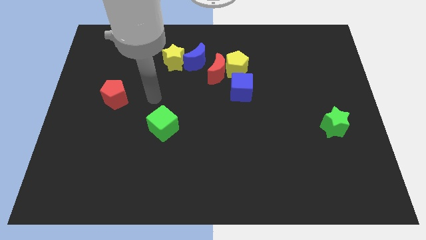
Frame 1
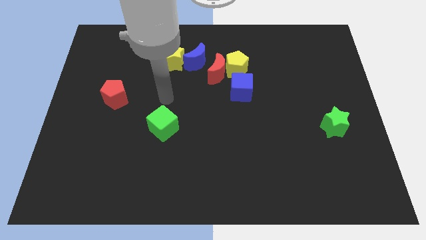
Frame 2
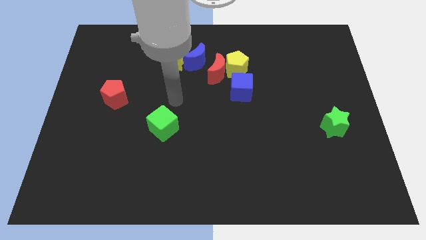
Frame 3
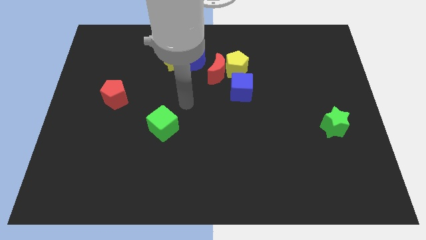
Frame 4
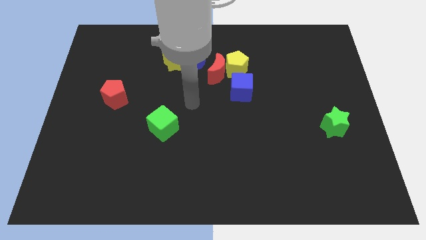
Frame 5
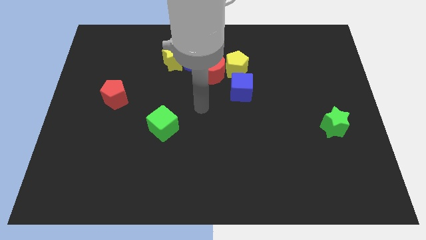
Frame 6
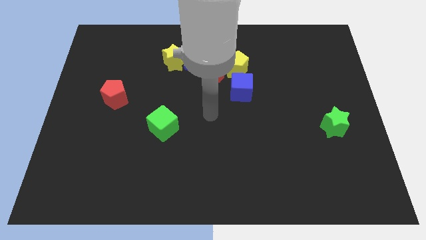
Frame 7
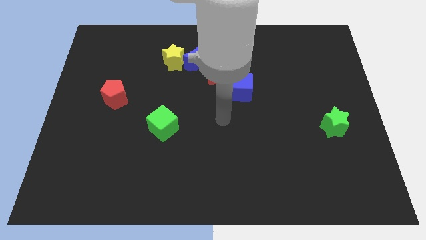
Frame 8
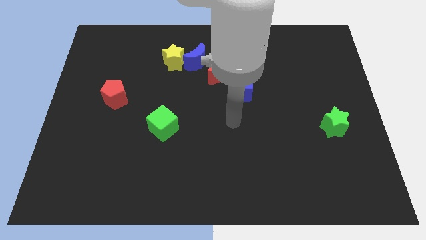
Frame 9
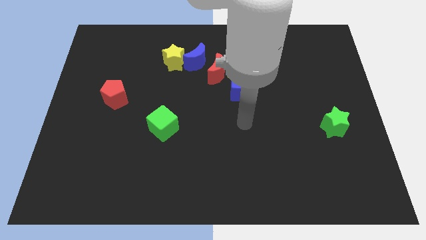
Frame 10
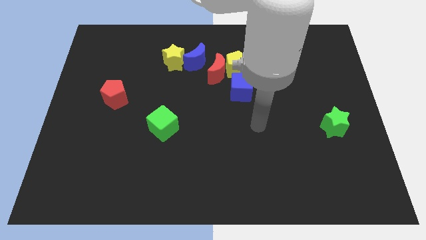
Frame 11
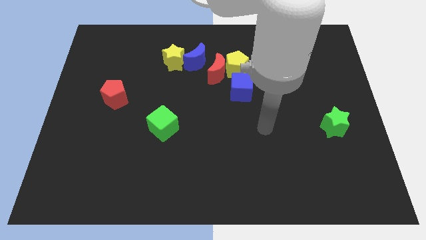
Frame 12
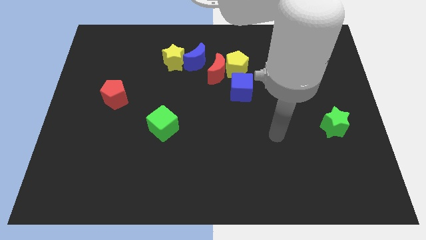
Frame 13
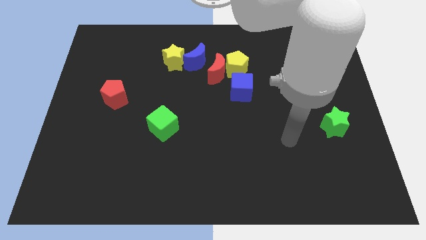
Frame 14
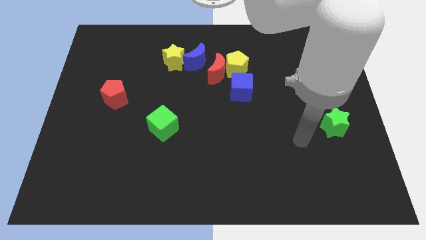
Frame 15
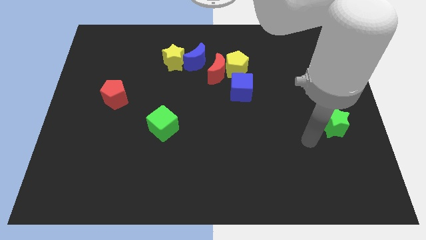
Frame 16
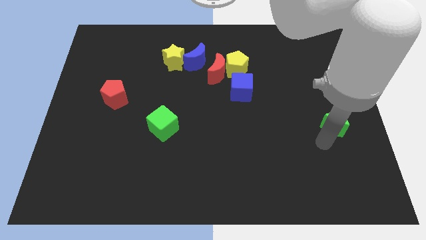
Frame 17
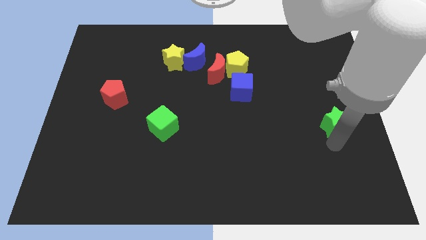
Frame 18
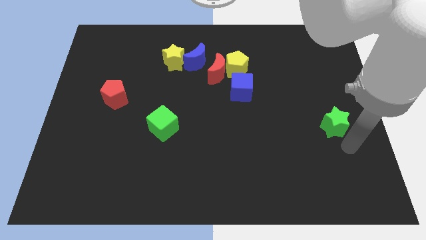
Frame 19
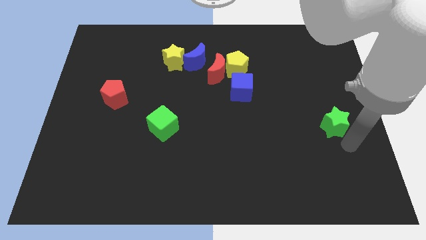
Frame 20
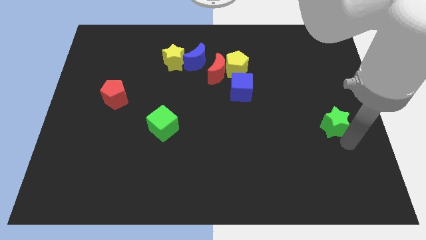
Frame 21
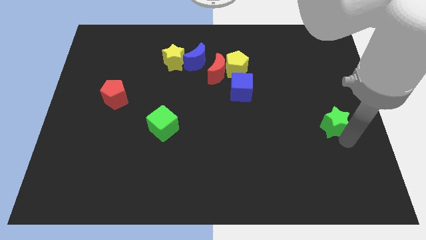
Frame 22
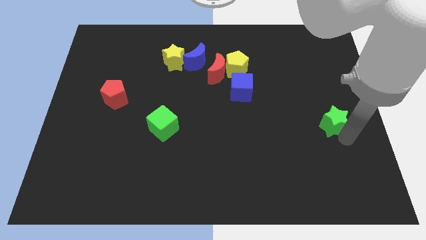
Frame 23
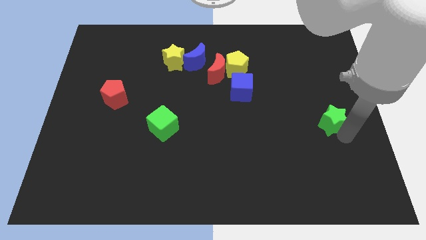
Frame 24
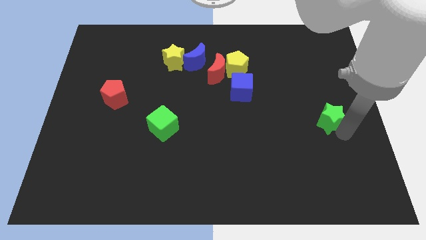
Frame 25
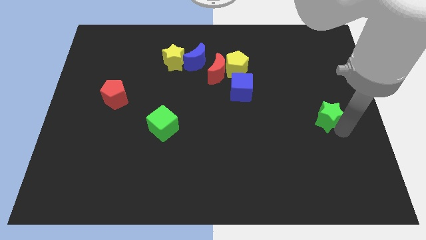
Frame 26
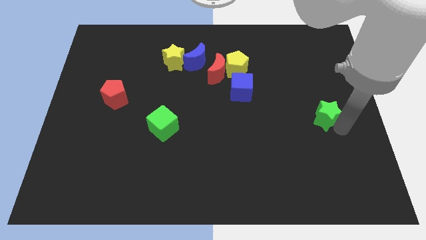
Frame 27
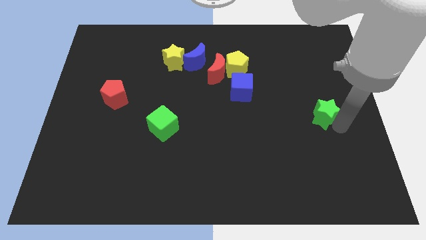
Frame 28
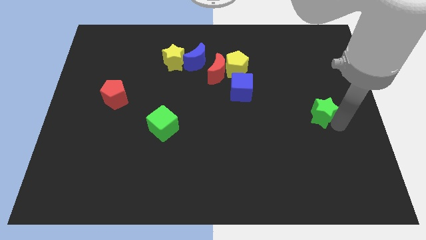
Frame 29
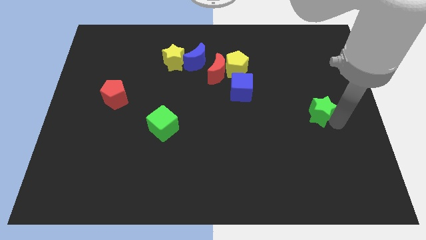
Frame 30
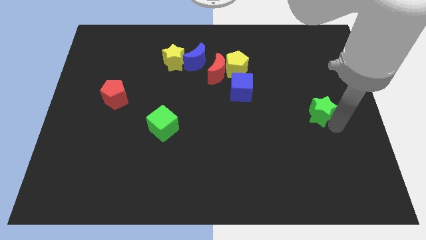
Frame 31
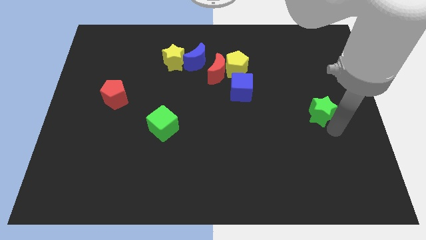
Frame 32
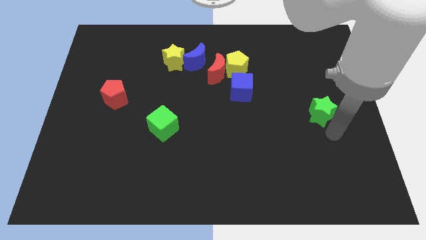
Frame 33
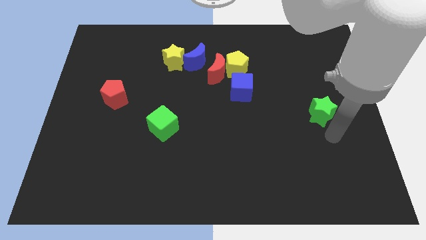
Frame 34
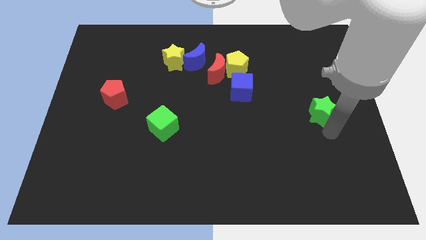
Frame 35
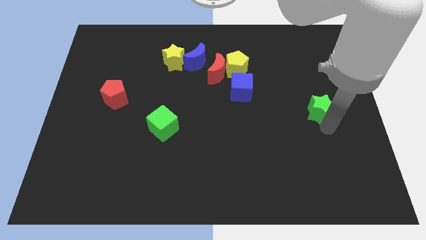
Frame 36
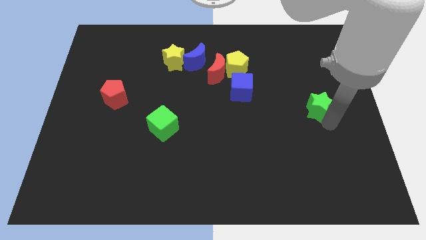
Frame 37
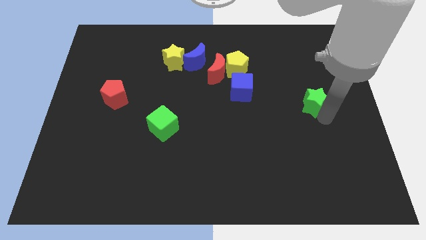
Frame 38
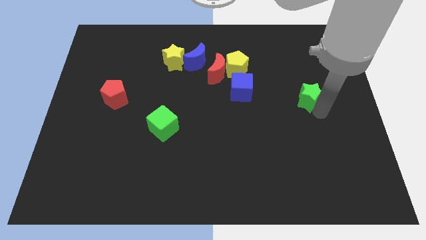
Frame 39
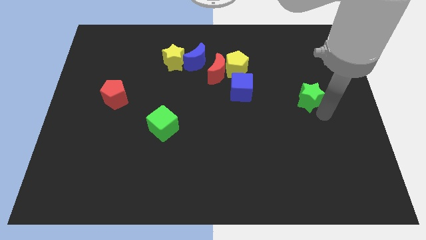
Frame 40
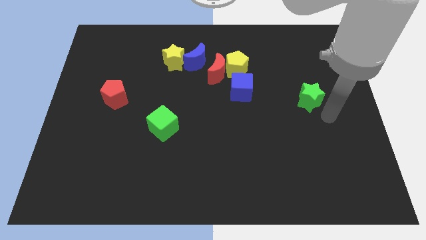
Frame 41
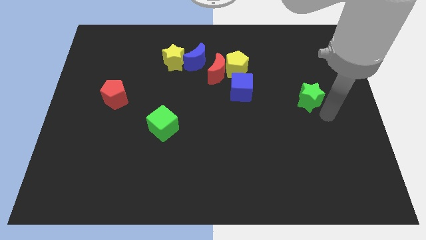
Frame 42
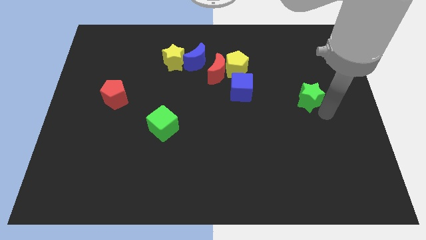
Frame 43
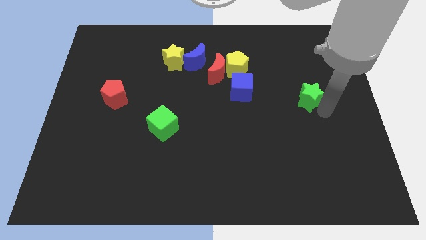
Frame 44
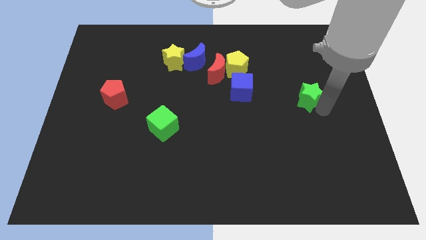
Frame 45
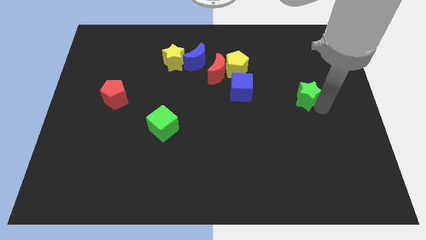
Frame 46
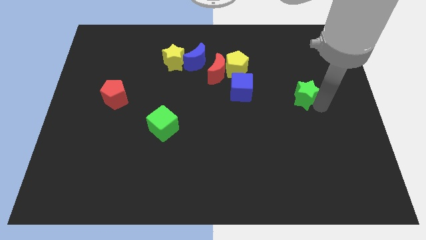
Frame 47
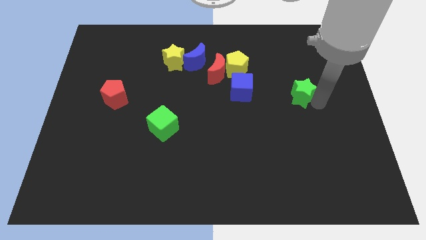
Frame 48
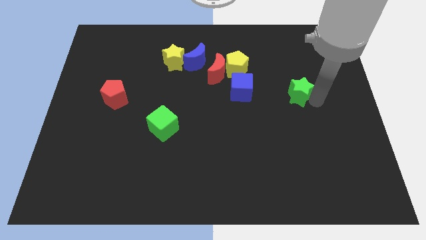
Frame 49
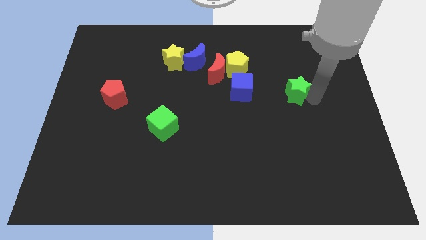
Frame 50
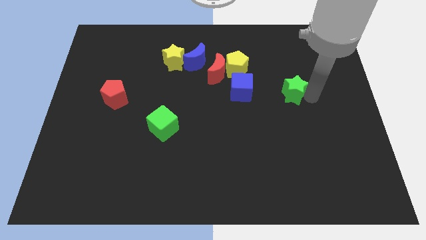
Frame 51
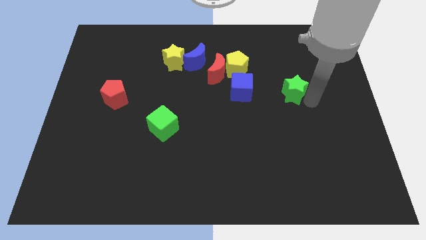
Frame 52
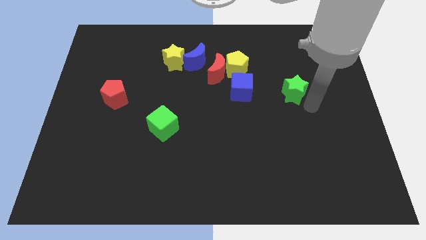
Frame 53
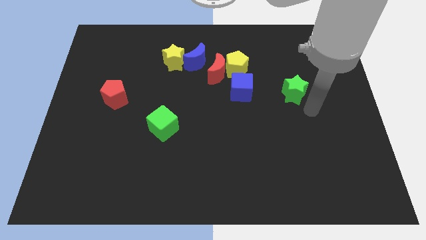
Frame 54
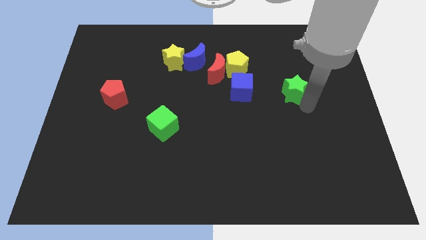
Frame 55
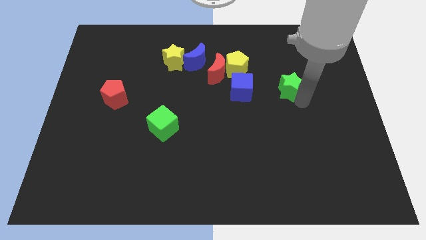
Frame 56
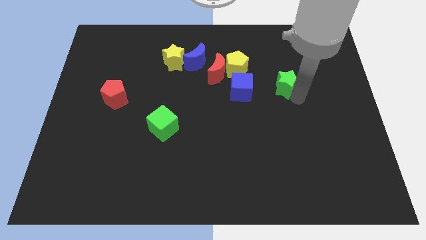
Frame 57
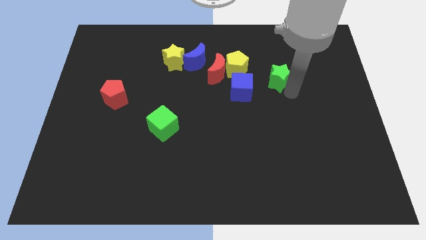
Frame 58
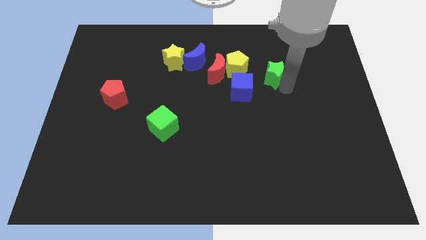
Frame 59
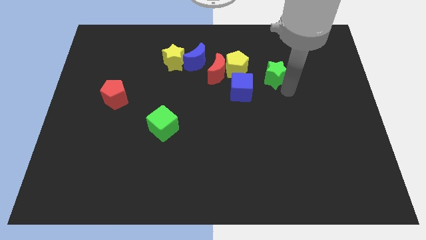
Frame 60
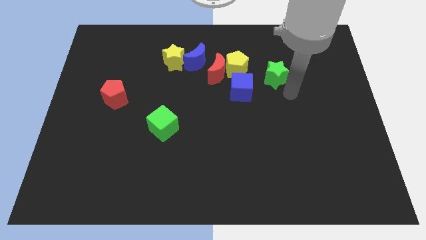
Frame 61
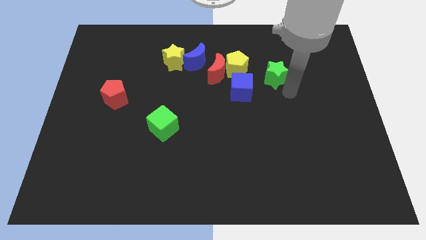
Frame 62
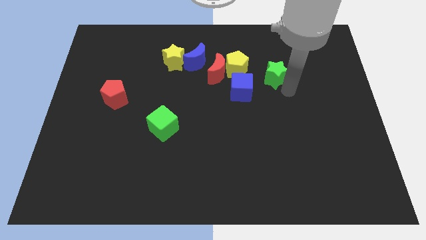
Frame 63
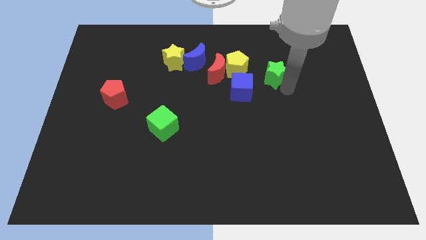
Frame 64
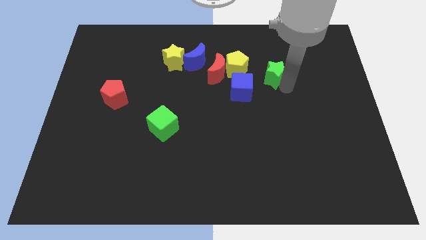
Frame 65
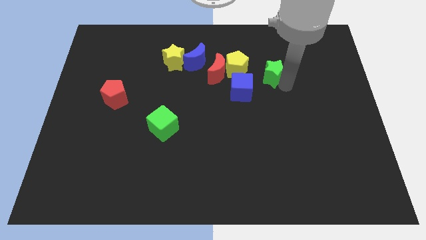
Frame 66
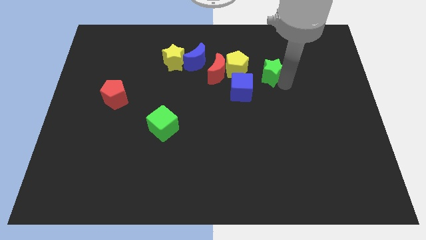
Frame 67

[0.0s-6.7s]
slide the green star up and left

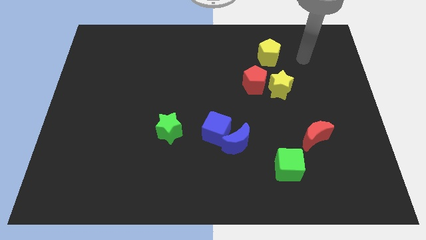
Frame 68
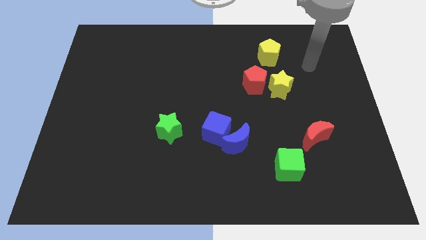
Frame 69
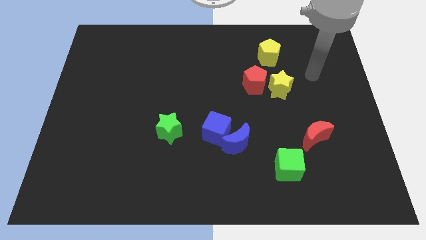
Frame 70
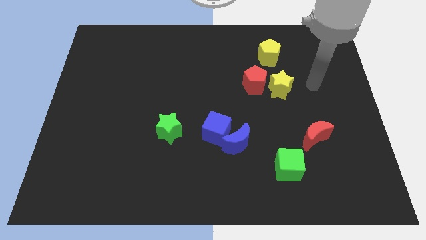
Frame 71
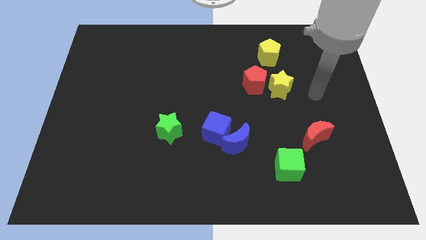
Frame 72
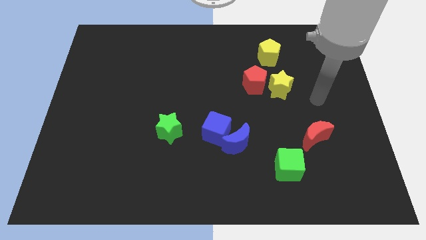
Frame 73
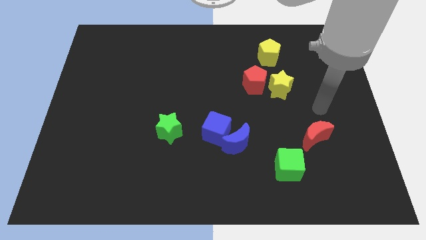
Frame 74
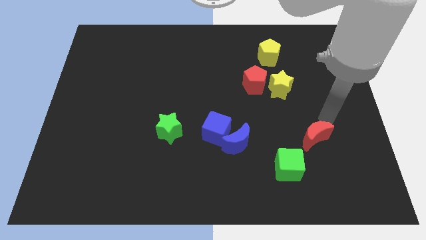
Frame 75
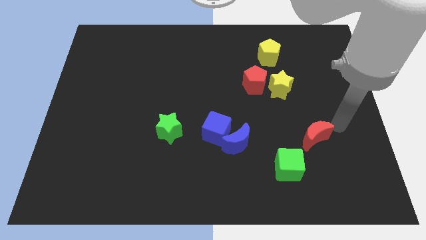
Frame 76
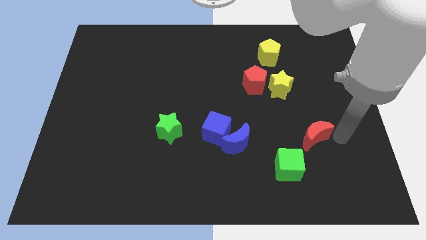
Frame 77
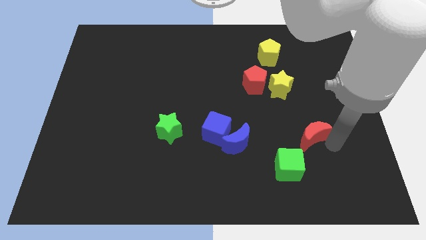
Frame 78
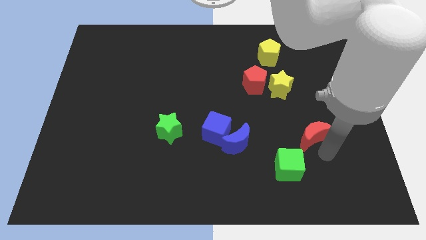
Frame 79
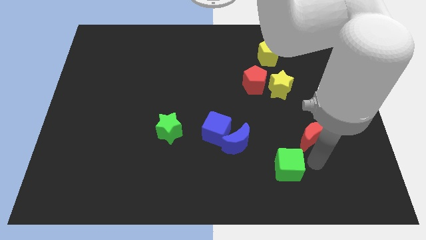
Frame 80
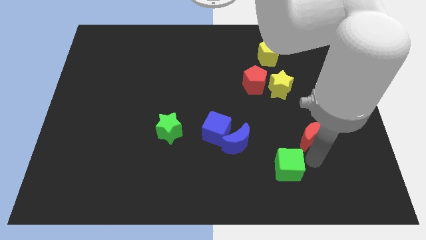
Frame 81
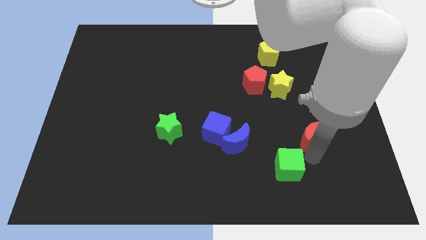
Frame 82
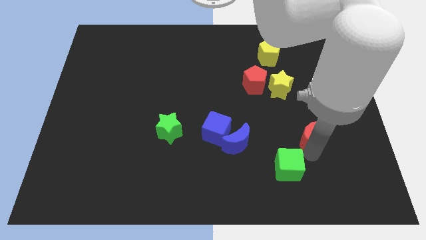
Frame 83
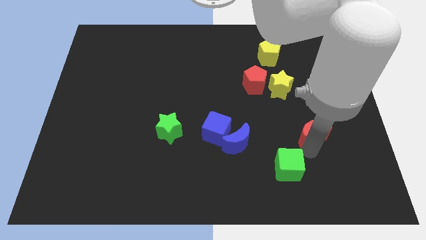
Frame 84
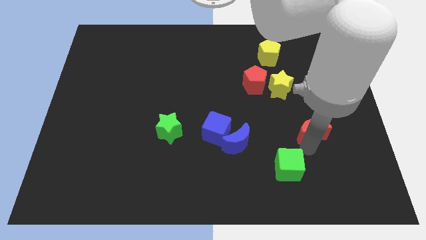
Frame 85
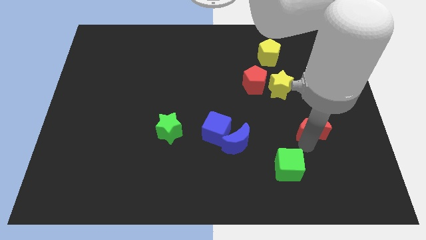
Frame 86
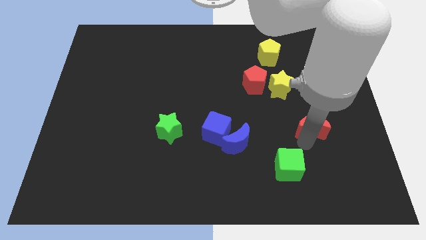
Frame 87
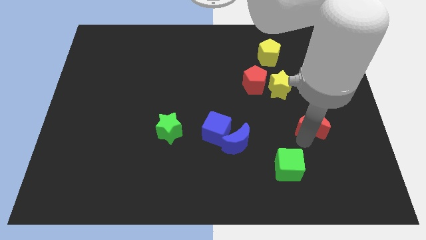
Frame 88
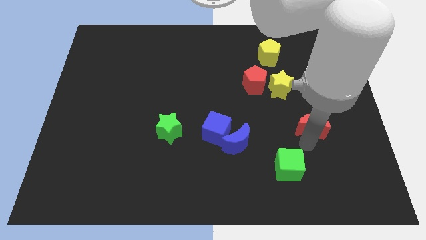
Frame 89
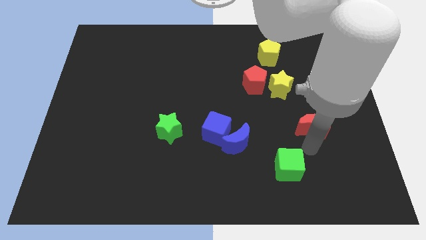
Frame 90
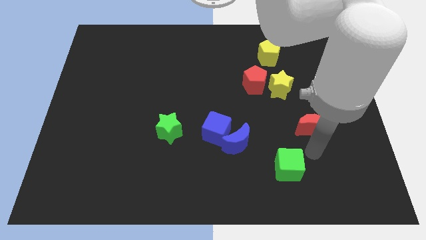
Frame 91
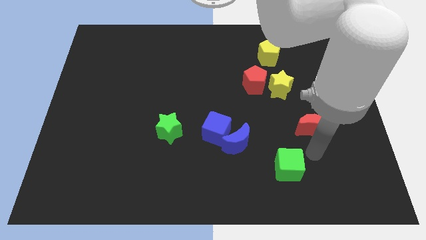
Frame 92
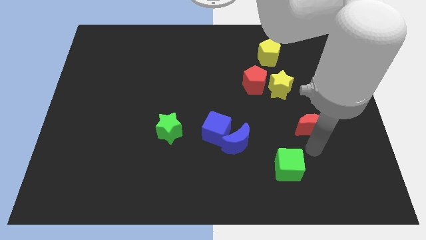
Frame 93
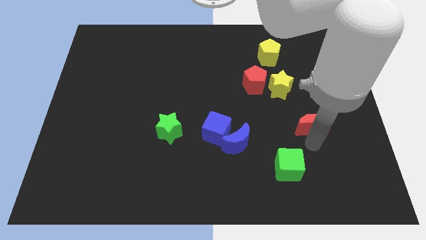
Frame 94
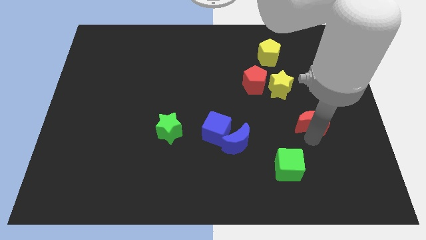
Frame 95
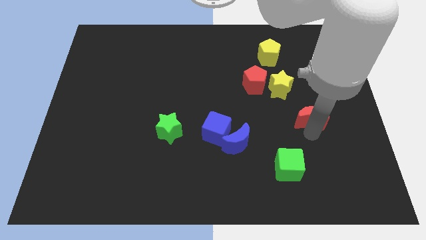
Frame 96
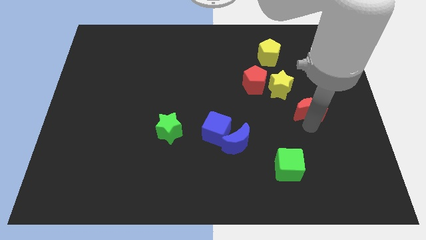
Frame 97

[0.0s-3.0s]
move the red moon somewhat upwards
